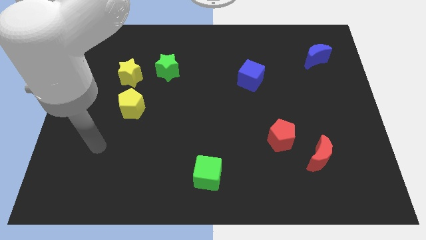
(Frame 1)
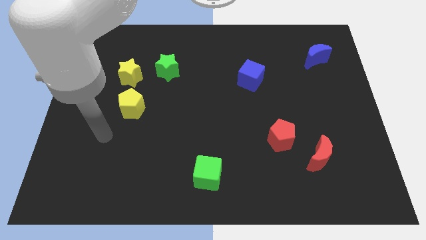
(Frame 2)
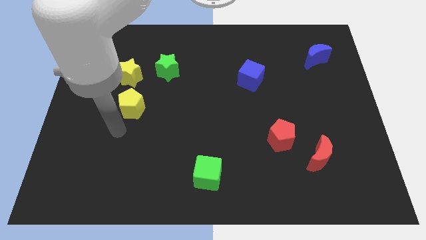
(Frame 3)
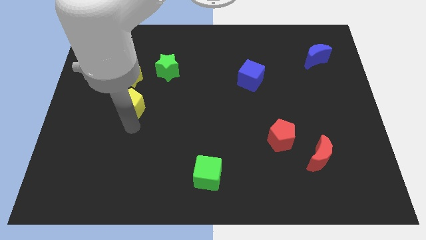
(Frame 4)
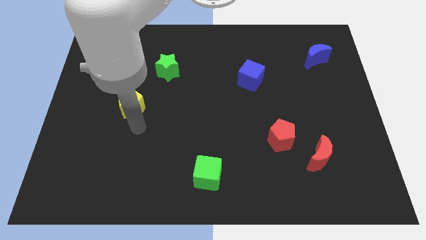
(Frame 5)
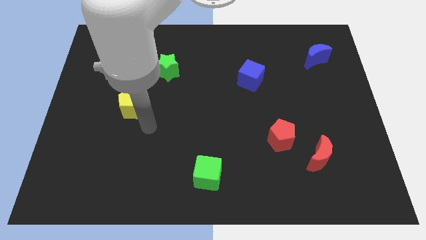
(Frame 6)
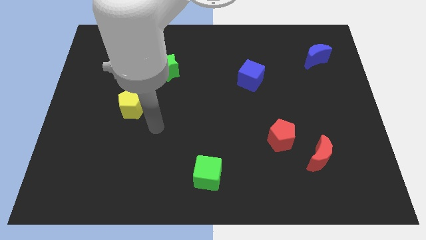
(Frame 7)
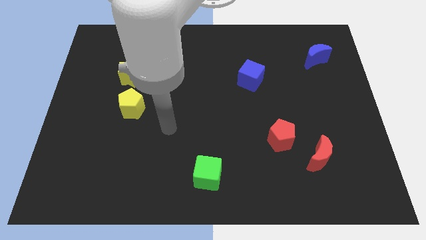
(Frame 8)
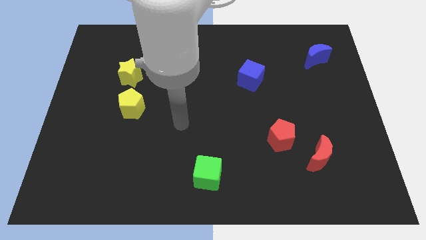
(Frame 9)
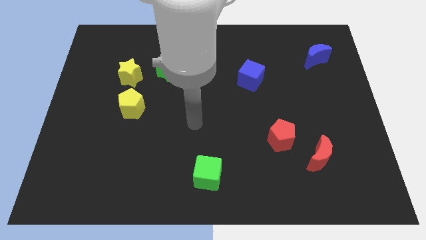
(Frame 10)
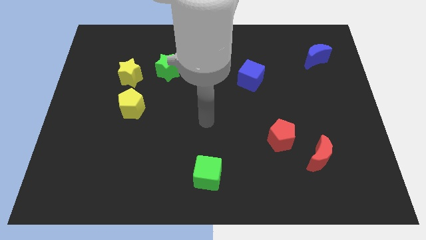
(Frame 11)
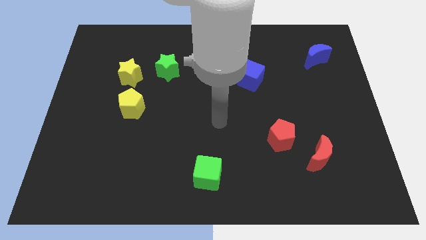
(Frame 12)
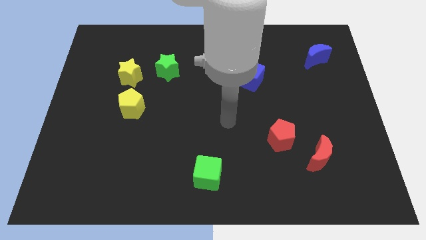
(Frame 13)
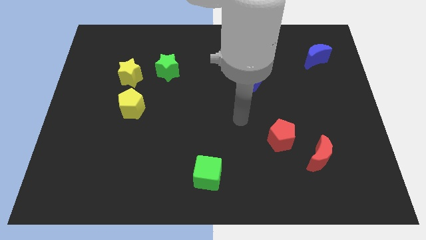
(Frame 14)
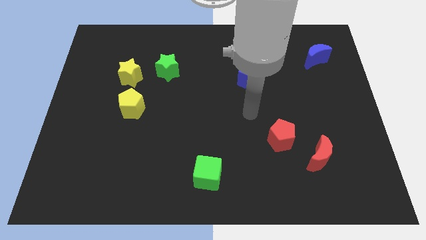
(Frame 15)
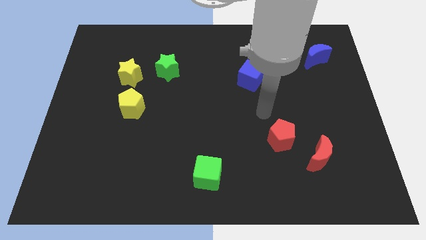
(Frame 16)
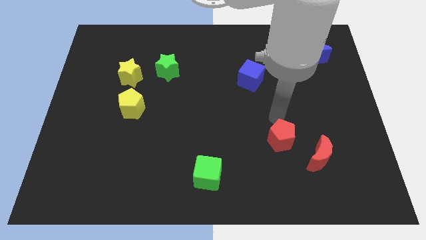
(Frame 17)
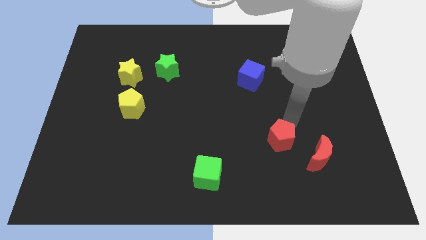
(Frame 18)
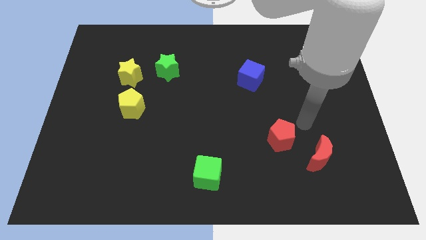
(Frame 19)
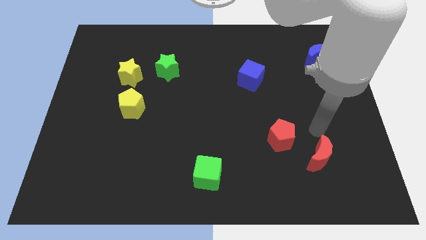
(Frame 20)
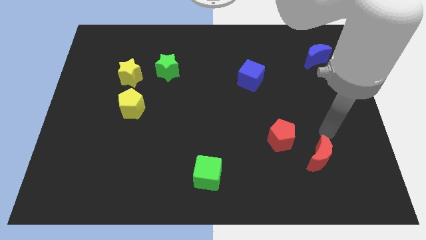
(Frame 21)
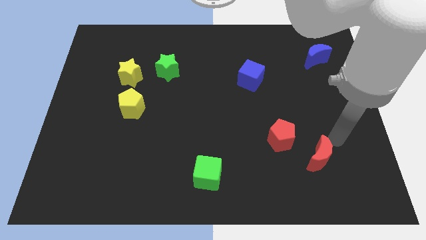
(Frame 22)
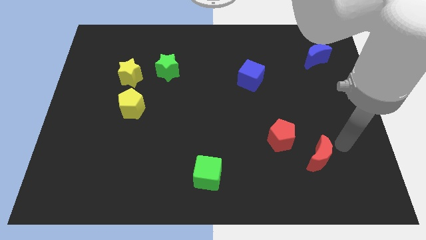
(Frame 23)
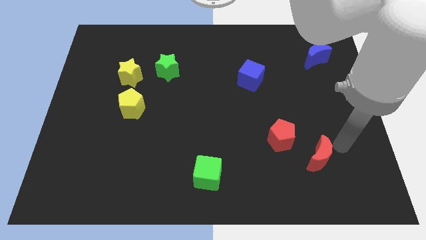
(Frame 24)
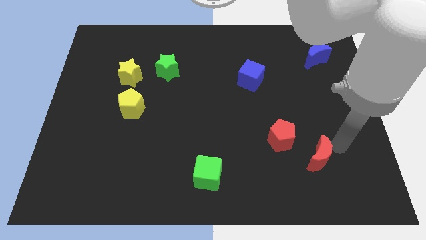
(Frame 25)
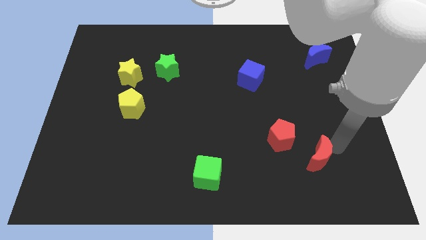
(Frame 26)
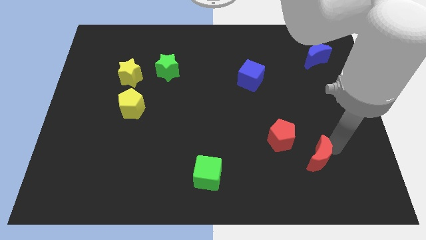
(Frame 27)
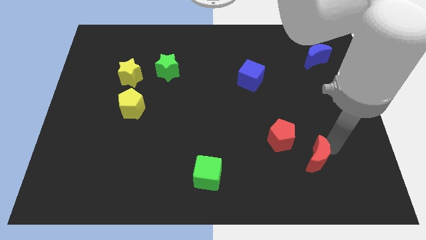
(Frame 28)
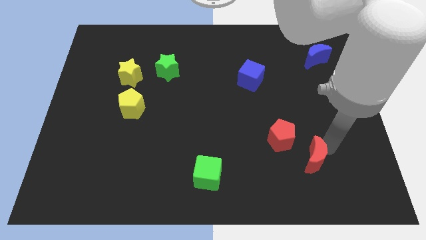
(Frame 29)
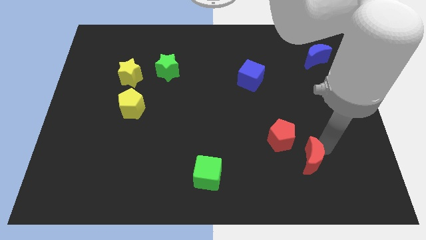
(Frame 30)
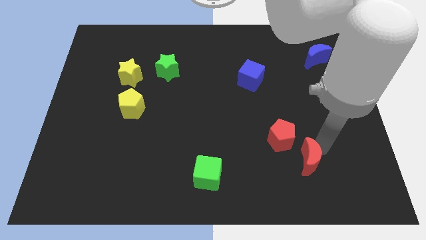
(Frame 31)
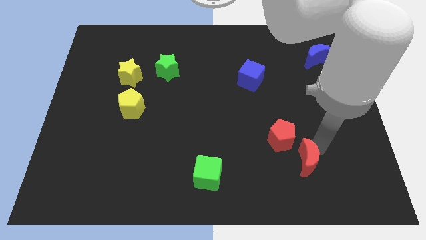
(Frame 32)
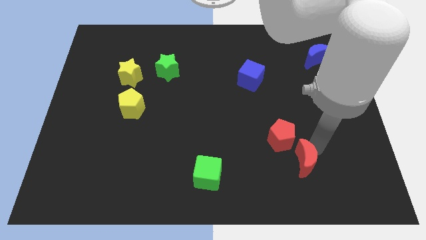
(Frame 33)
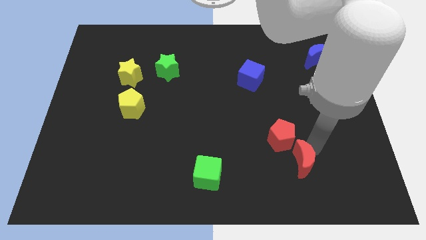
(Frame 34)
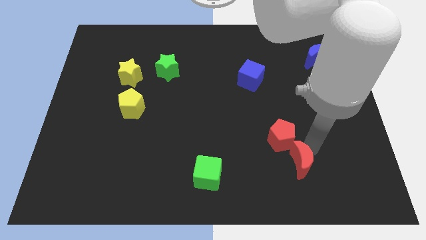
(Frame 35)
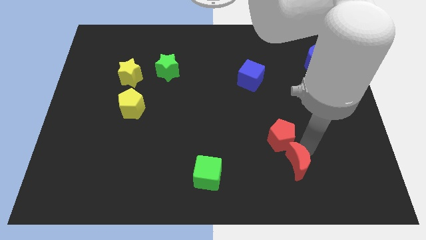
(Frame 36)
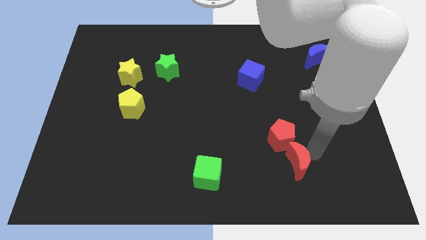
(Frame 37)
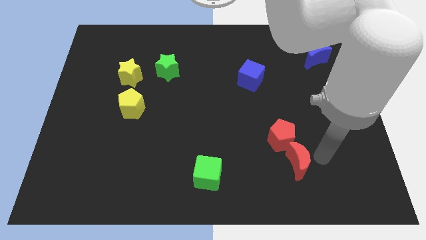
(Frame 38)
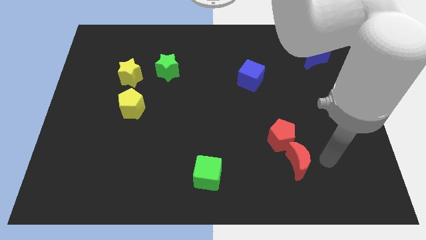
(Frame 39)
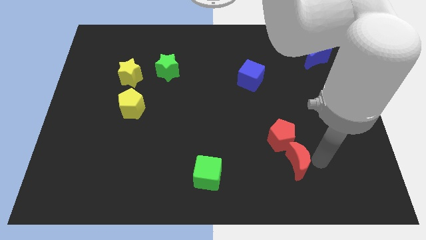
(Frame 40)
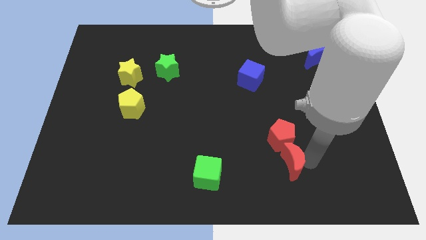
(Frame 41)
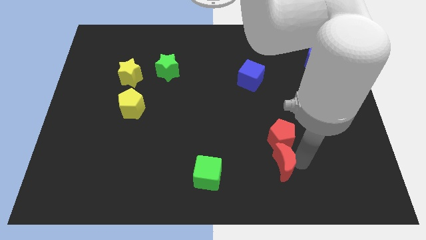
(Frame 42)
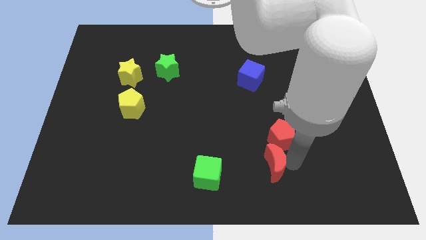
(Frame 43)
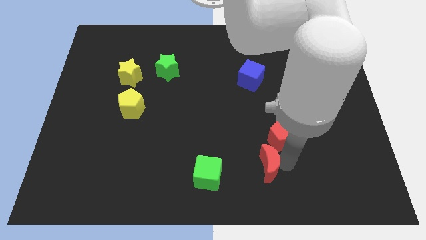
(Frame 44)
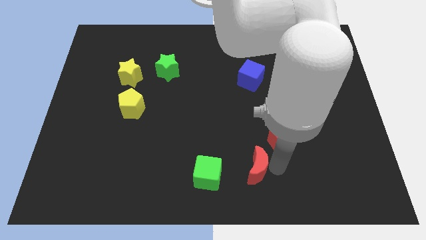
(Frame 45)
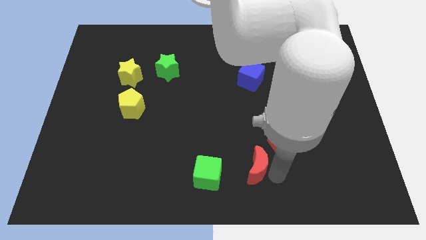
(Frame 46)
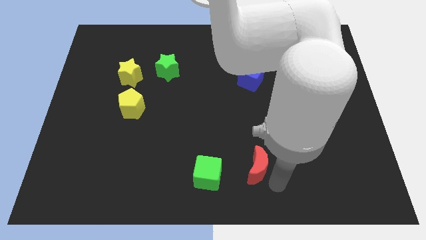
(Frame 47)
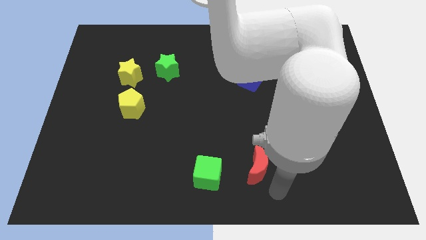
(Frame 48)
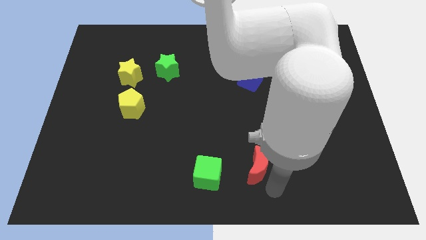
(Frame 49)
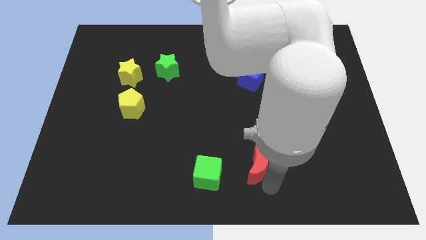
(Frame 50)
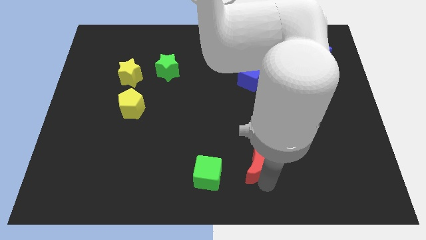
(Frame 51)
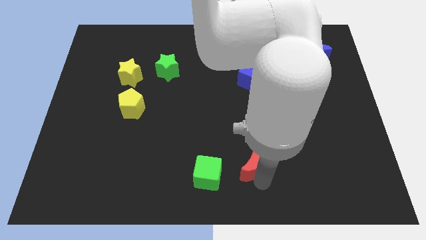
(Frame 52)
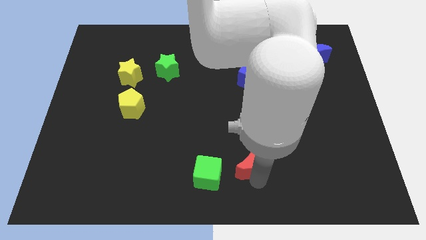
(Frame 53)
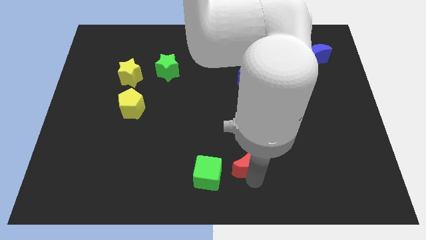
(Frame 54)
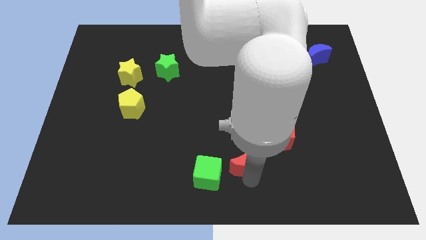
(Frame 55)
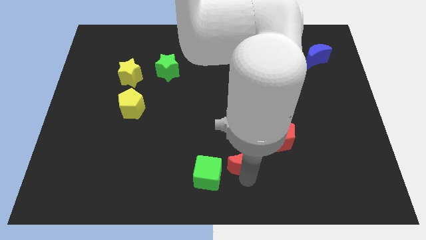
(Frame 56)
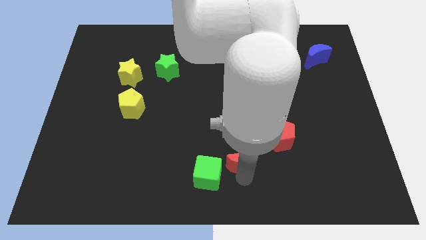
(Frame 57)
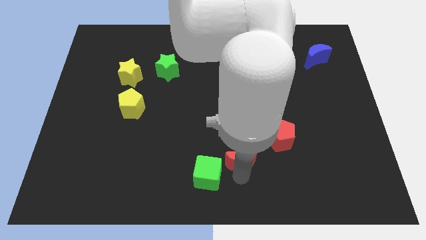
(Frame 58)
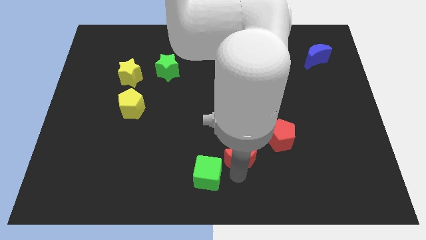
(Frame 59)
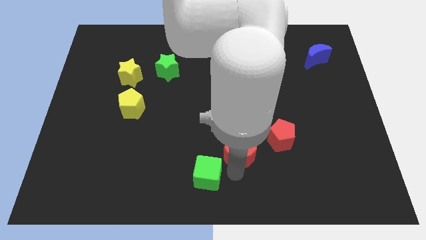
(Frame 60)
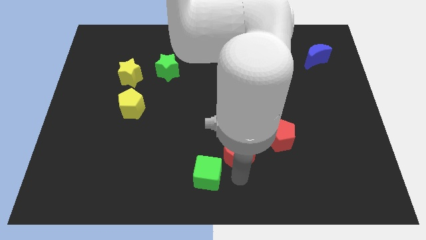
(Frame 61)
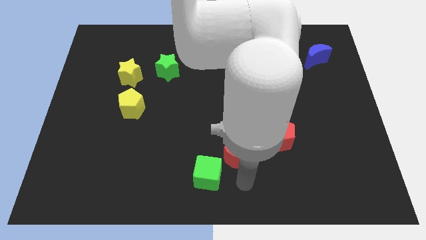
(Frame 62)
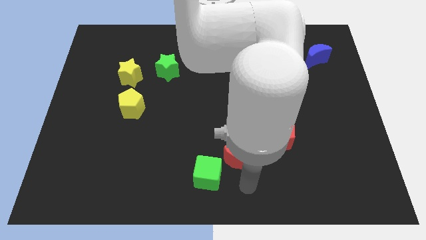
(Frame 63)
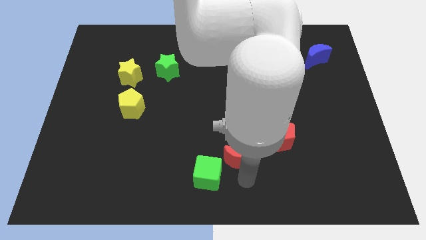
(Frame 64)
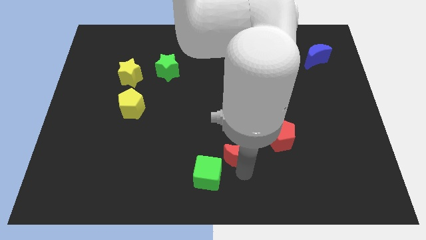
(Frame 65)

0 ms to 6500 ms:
put the red moon to the left of the red pentagon

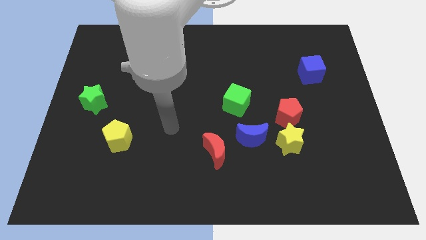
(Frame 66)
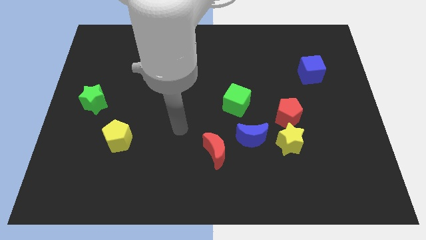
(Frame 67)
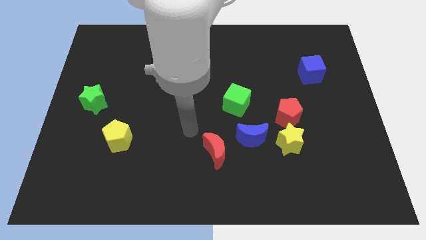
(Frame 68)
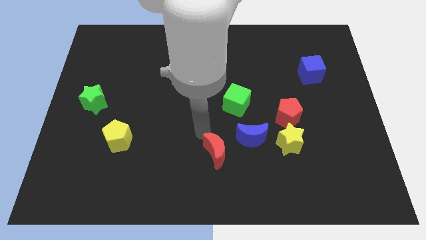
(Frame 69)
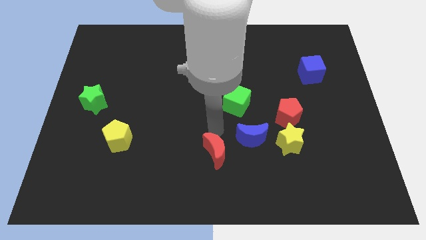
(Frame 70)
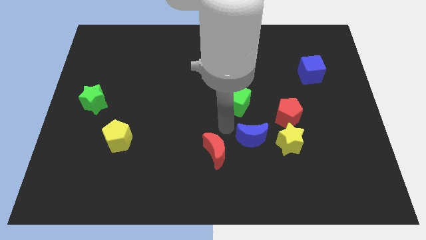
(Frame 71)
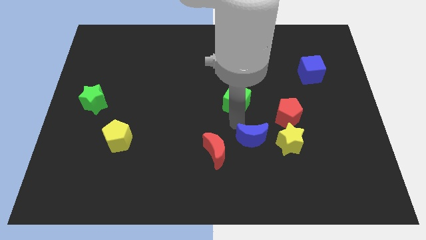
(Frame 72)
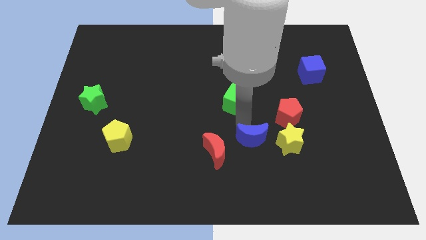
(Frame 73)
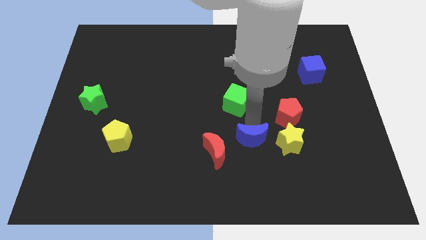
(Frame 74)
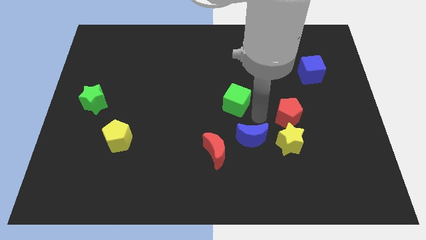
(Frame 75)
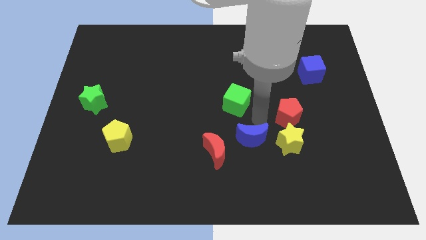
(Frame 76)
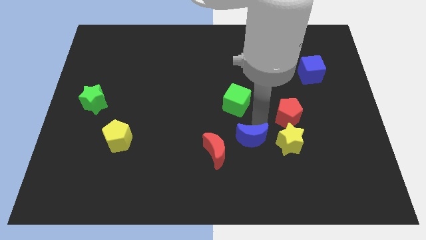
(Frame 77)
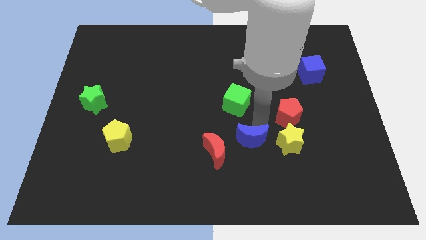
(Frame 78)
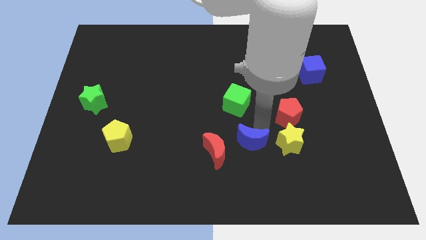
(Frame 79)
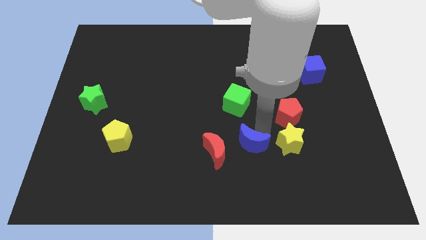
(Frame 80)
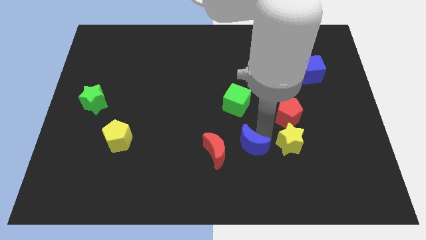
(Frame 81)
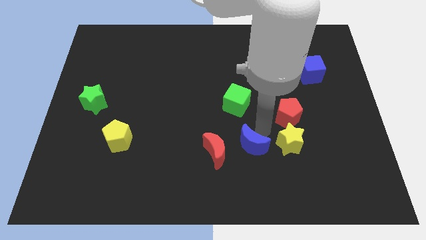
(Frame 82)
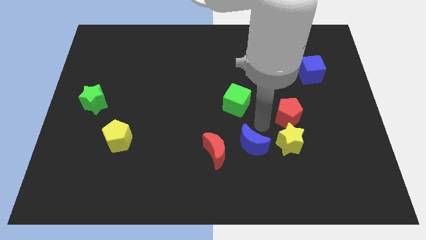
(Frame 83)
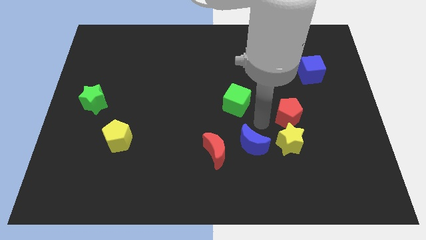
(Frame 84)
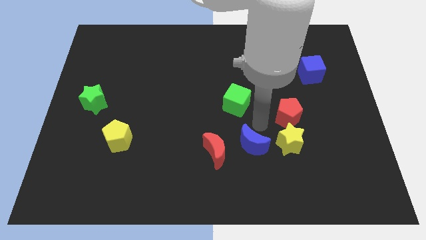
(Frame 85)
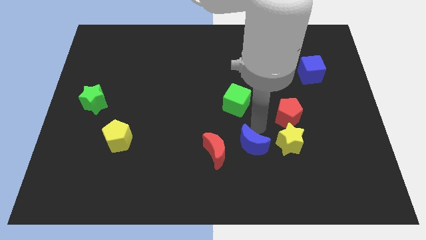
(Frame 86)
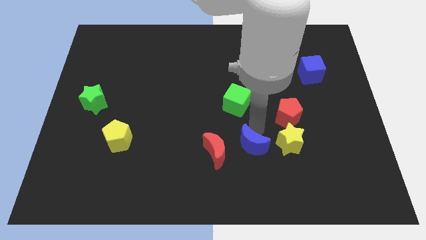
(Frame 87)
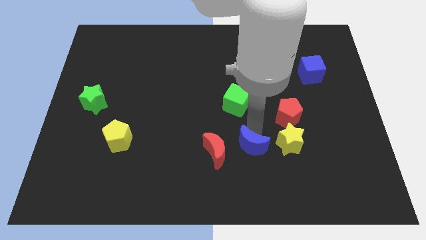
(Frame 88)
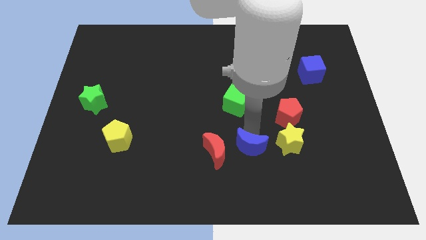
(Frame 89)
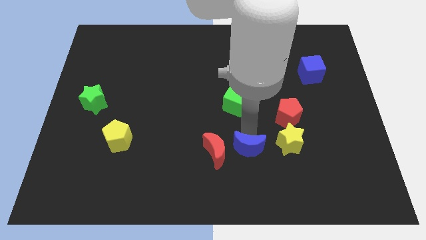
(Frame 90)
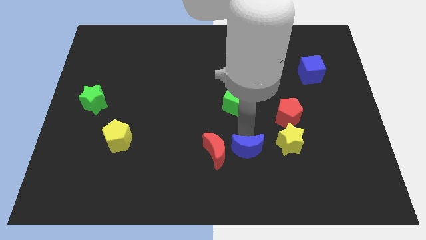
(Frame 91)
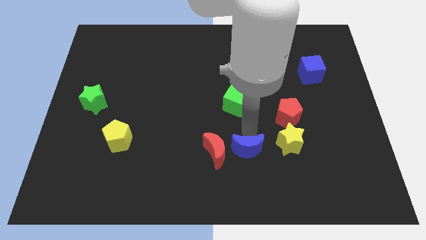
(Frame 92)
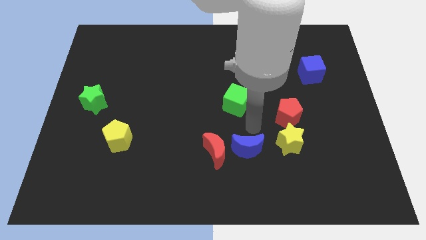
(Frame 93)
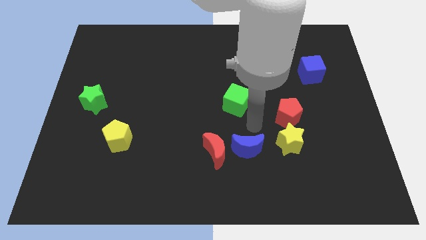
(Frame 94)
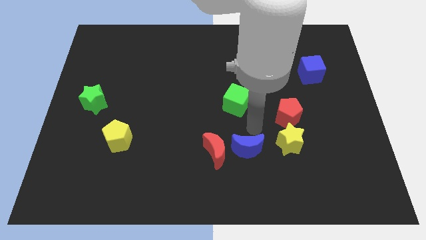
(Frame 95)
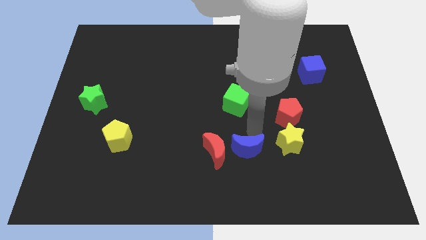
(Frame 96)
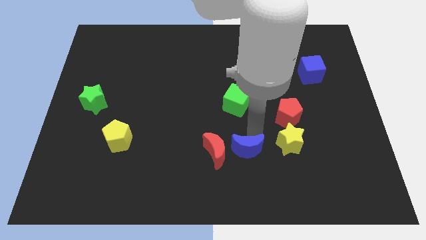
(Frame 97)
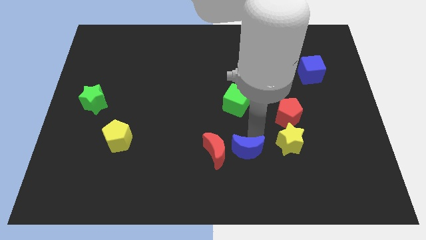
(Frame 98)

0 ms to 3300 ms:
slide the blue moon diagonally down and to the right of the red moon
